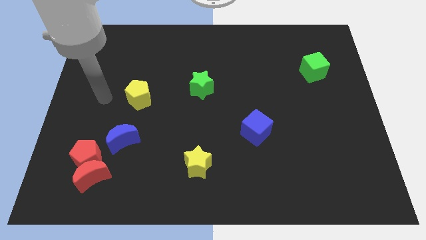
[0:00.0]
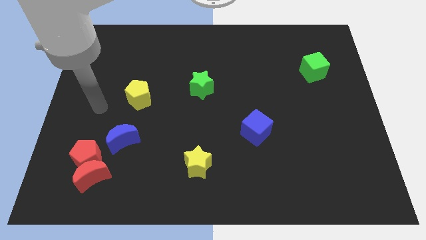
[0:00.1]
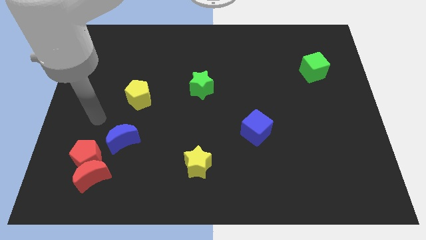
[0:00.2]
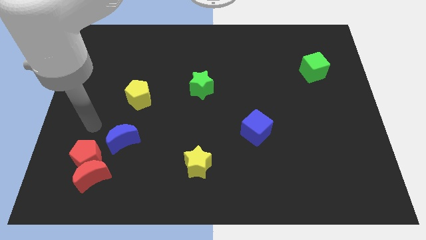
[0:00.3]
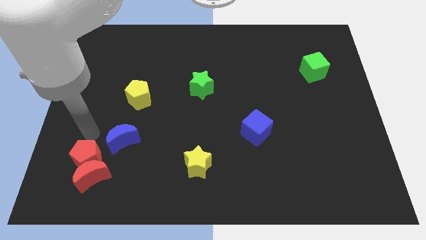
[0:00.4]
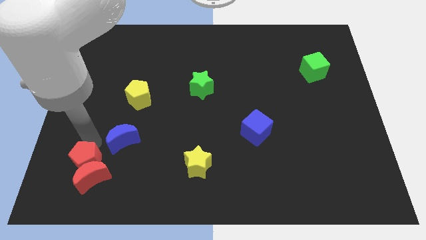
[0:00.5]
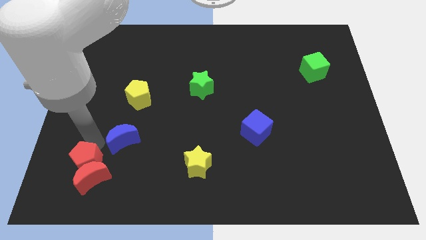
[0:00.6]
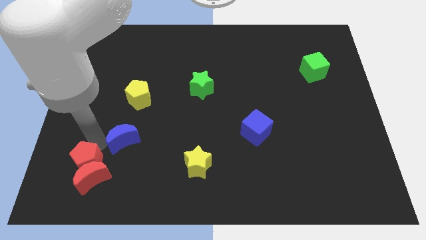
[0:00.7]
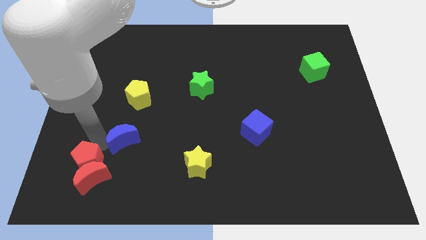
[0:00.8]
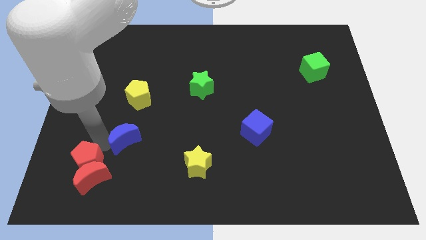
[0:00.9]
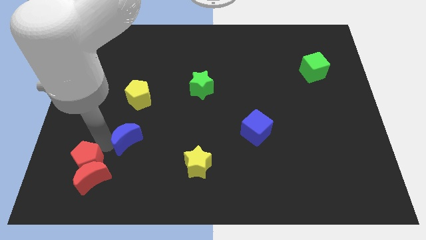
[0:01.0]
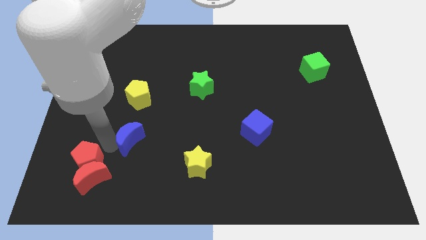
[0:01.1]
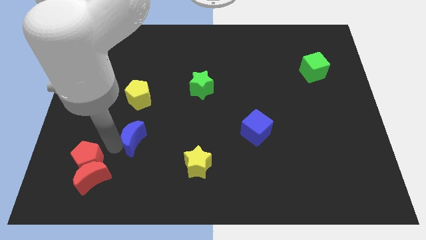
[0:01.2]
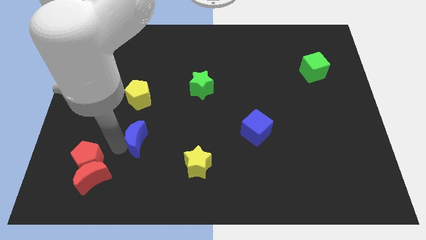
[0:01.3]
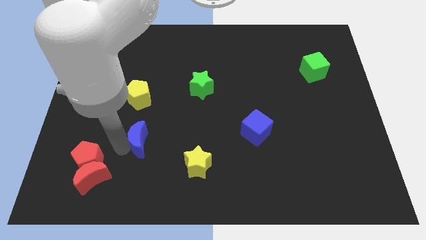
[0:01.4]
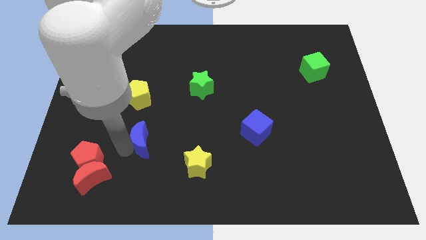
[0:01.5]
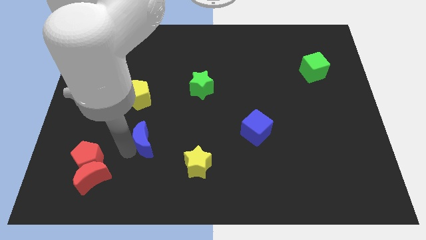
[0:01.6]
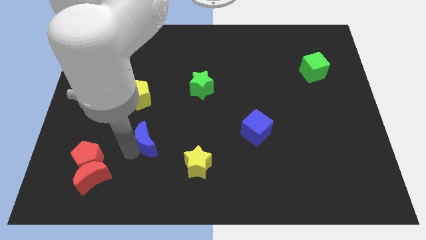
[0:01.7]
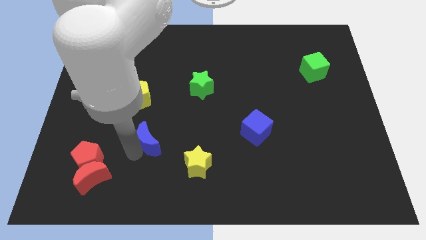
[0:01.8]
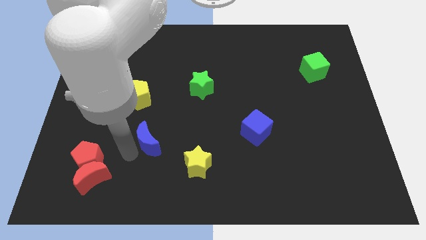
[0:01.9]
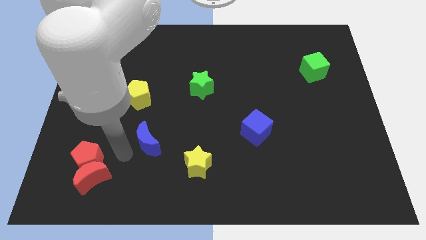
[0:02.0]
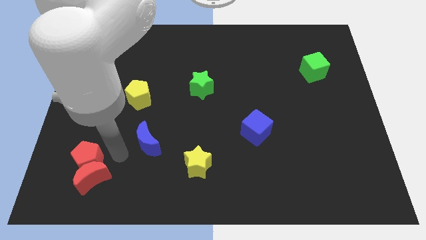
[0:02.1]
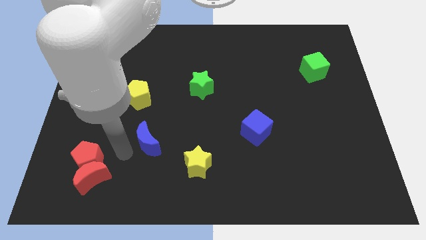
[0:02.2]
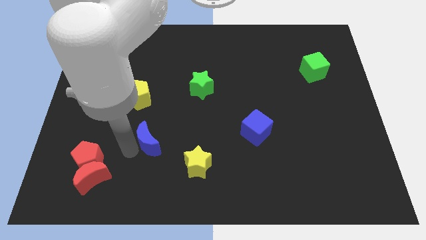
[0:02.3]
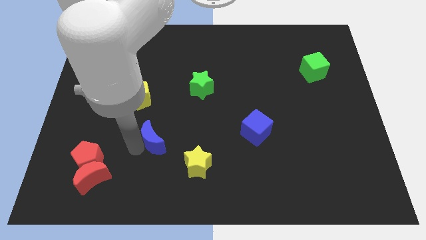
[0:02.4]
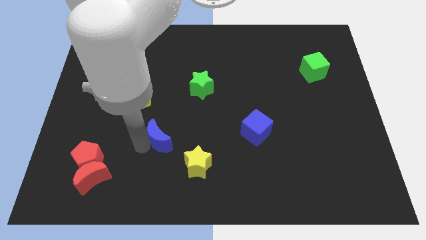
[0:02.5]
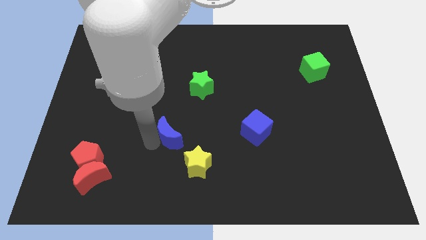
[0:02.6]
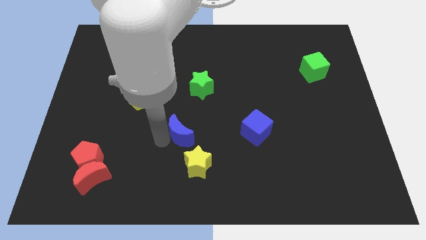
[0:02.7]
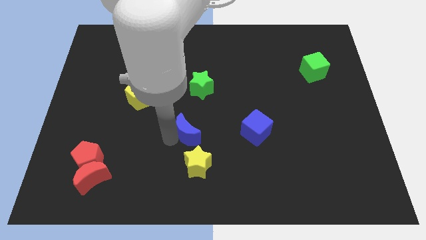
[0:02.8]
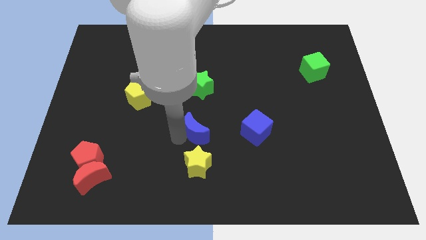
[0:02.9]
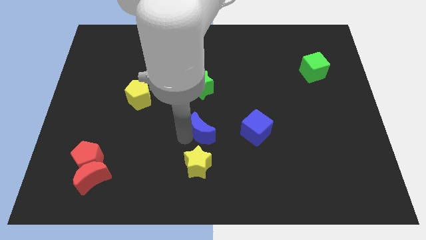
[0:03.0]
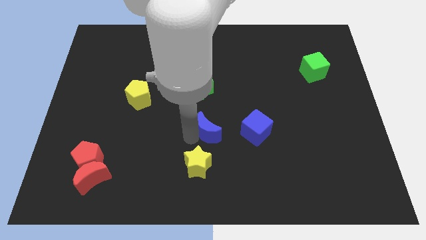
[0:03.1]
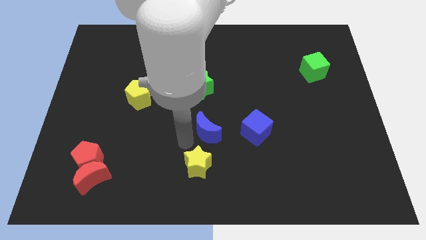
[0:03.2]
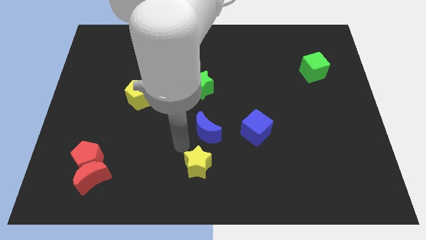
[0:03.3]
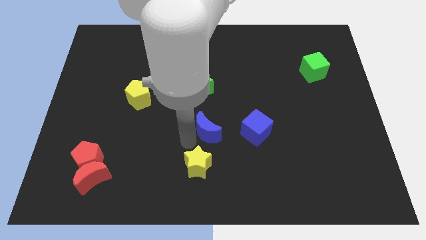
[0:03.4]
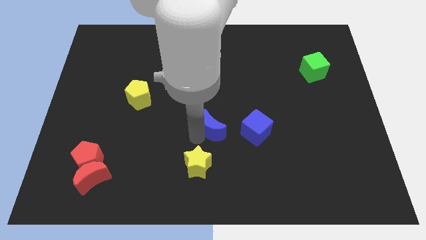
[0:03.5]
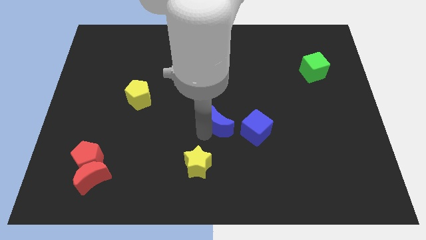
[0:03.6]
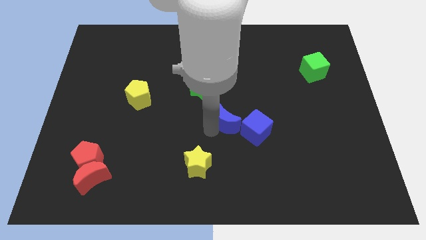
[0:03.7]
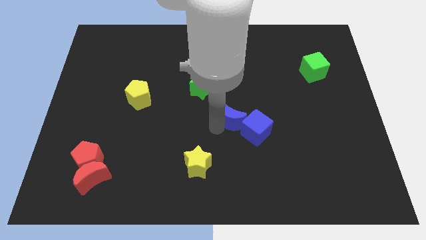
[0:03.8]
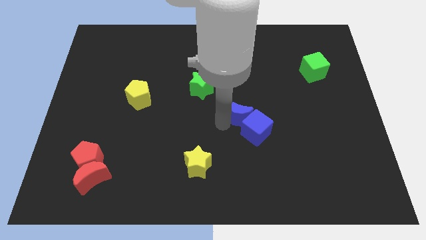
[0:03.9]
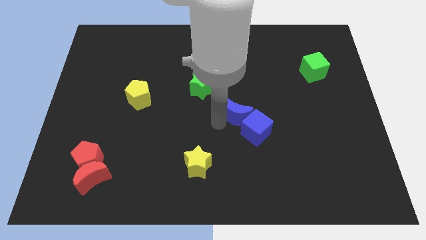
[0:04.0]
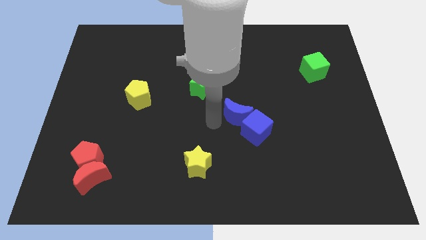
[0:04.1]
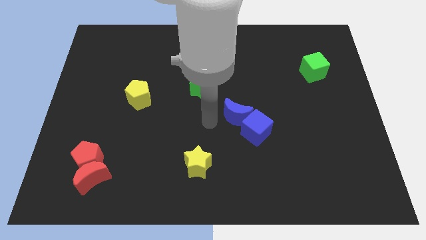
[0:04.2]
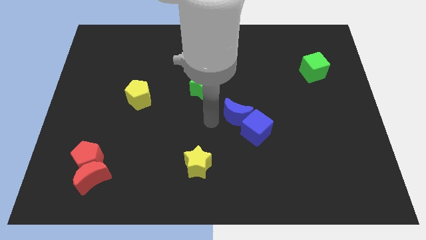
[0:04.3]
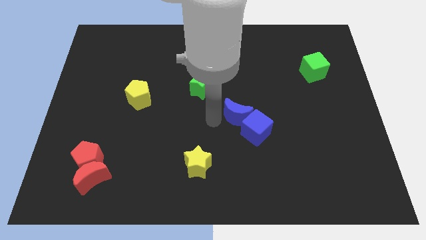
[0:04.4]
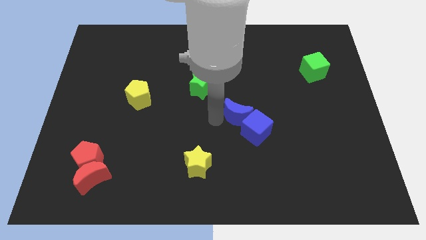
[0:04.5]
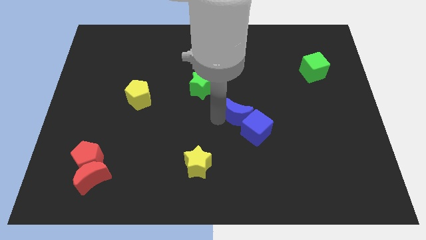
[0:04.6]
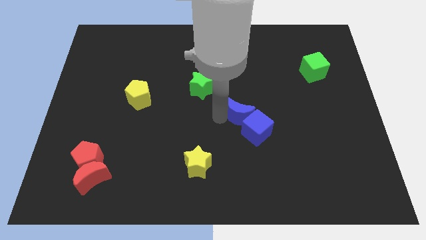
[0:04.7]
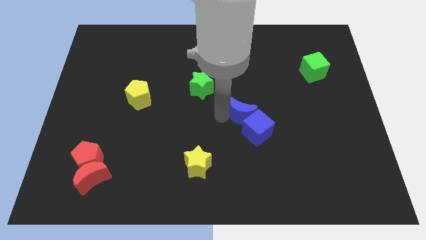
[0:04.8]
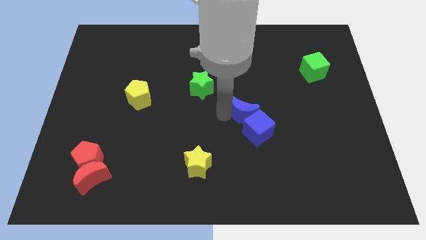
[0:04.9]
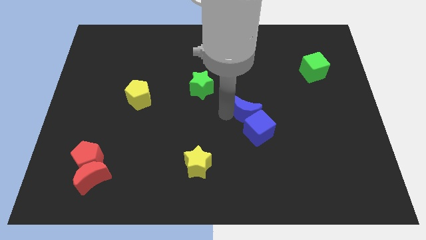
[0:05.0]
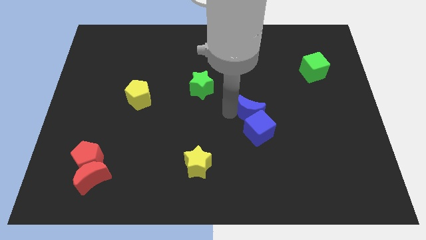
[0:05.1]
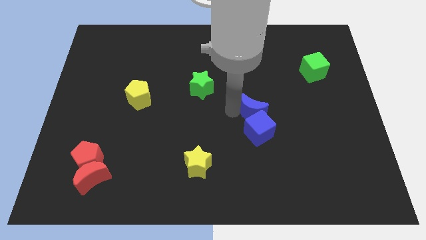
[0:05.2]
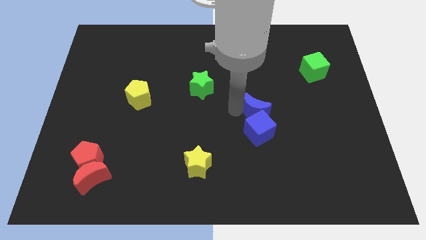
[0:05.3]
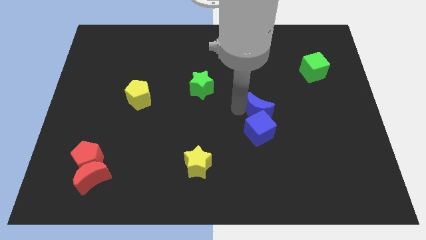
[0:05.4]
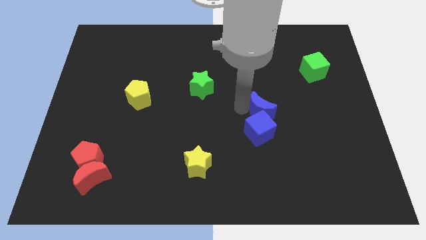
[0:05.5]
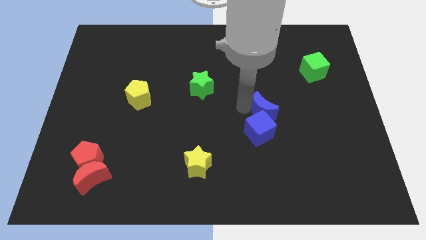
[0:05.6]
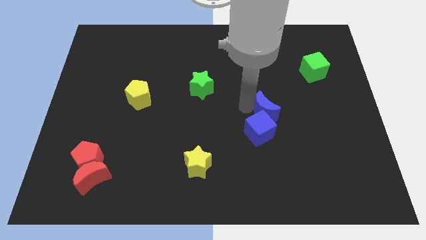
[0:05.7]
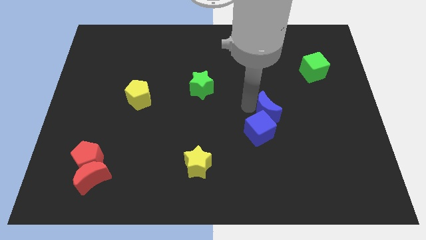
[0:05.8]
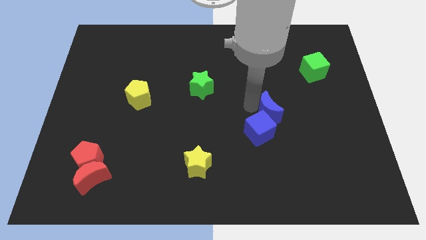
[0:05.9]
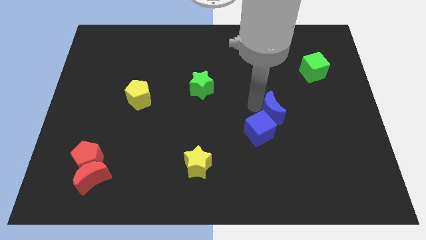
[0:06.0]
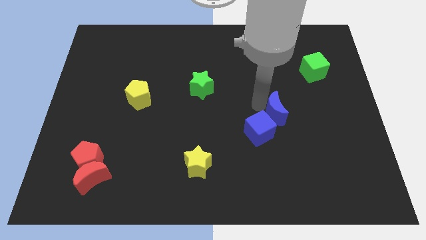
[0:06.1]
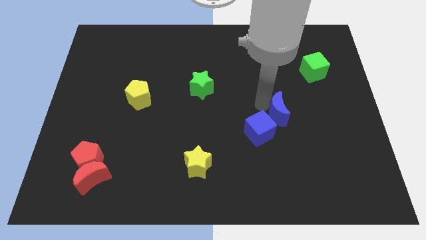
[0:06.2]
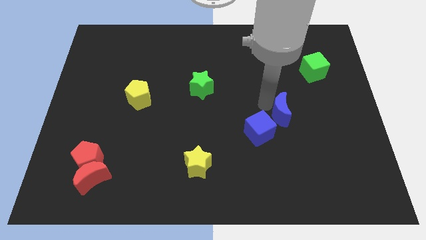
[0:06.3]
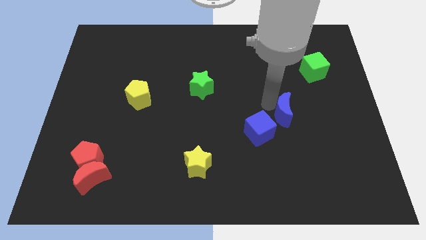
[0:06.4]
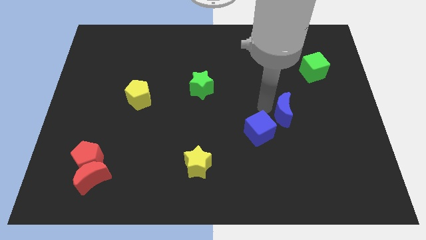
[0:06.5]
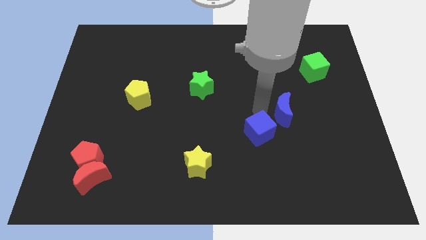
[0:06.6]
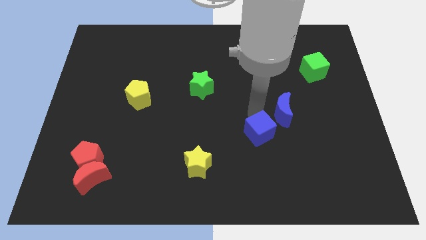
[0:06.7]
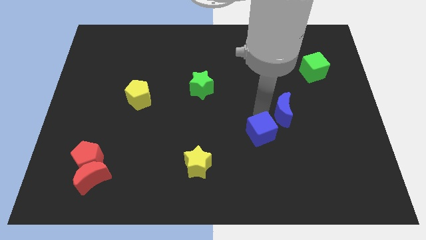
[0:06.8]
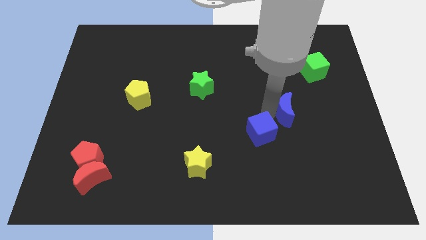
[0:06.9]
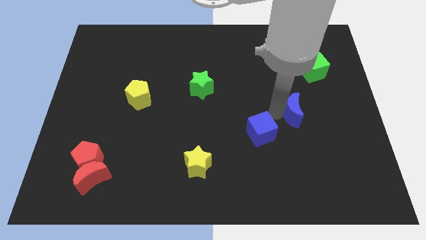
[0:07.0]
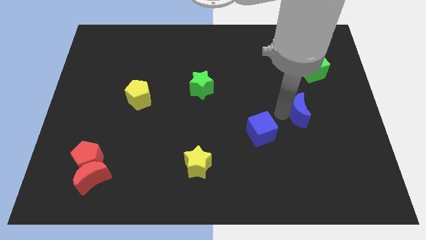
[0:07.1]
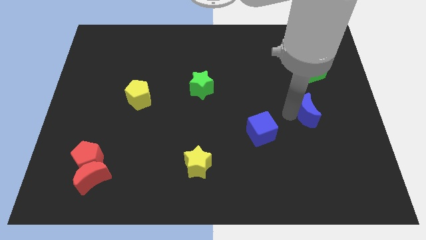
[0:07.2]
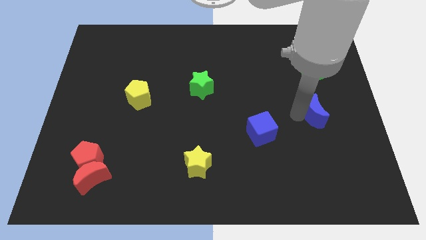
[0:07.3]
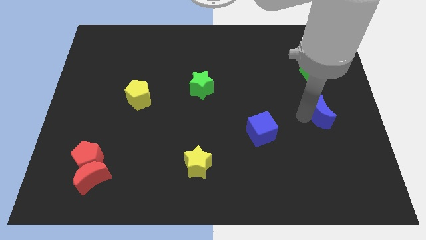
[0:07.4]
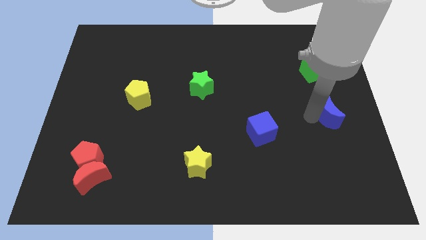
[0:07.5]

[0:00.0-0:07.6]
slide the blue moon to the right side
